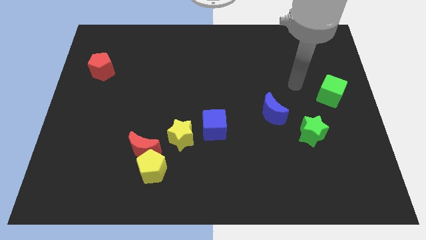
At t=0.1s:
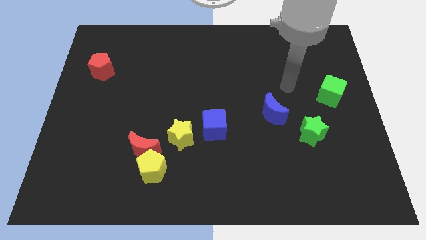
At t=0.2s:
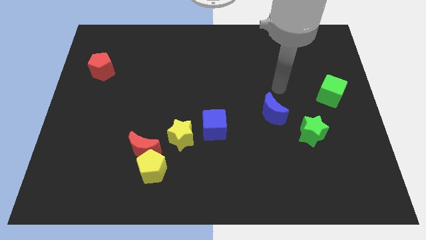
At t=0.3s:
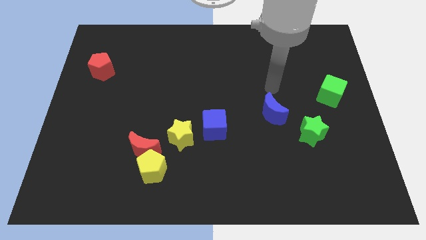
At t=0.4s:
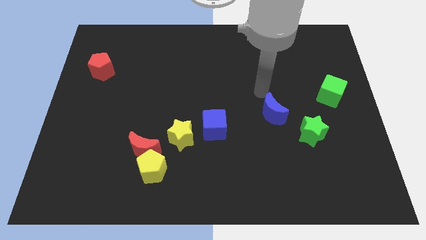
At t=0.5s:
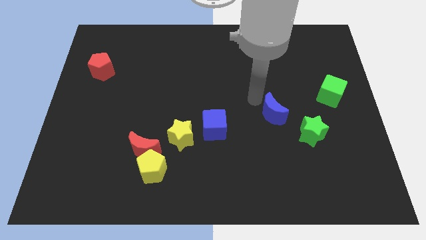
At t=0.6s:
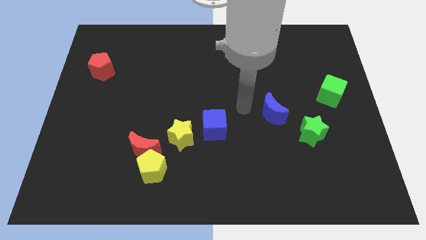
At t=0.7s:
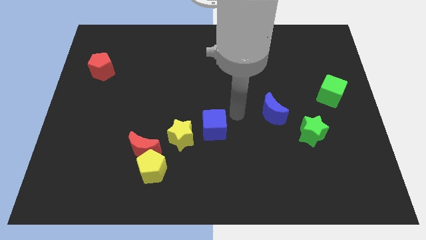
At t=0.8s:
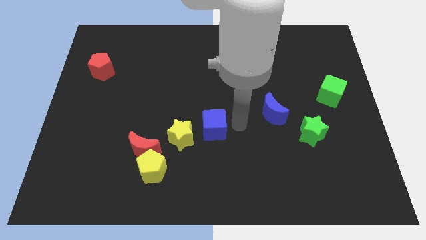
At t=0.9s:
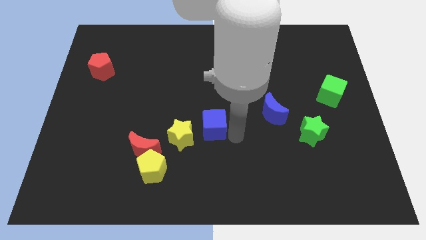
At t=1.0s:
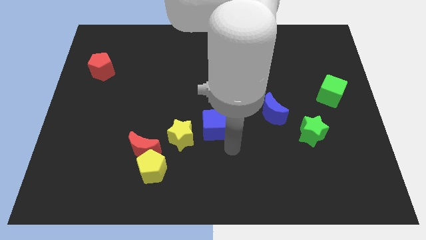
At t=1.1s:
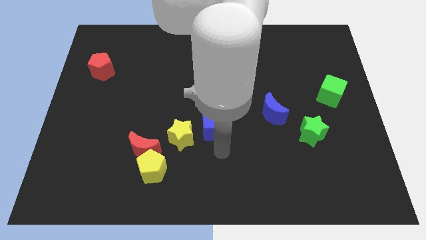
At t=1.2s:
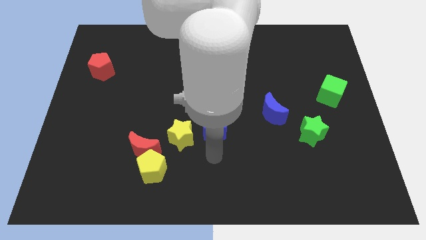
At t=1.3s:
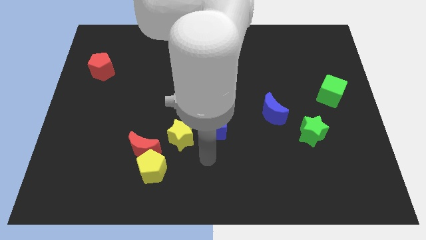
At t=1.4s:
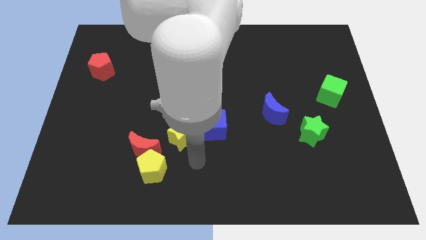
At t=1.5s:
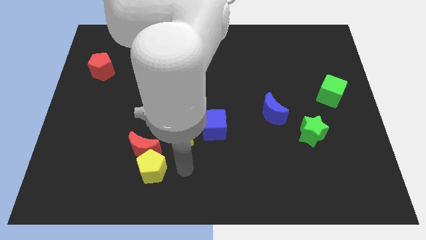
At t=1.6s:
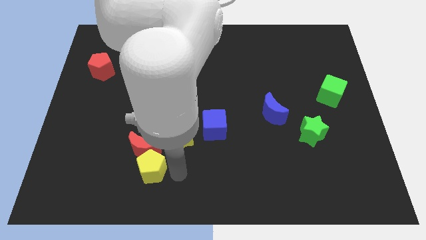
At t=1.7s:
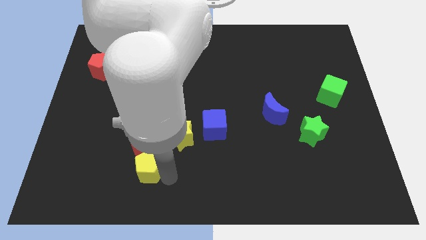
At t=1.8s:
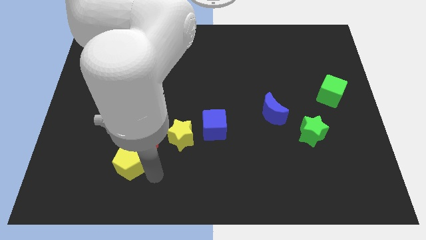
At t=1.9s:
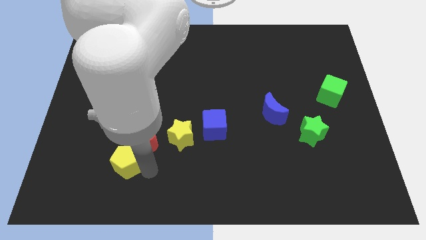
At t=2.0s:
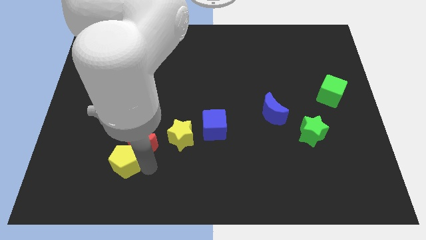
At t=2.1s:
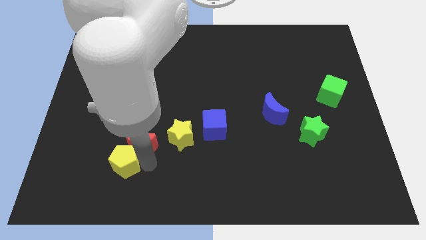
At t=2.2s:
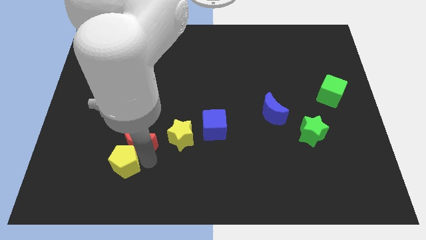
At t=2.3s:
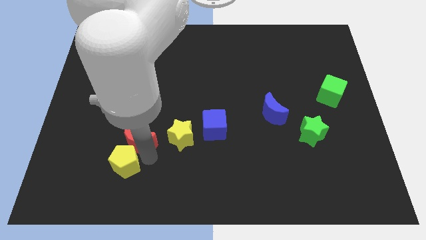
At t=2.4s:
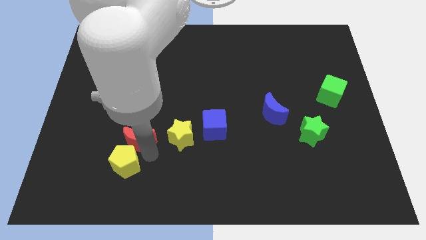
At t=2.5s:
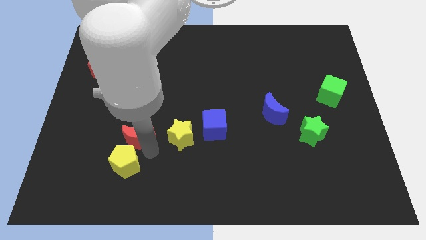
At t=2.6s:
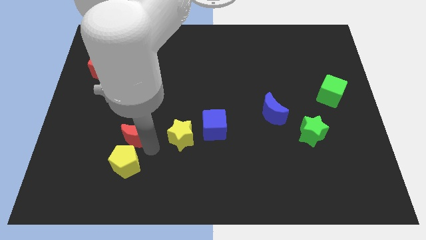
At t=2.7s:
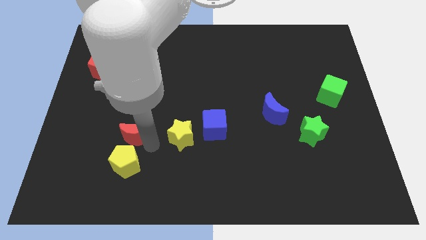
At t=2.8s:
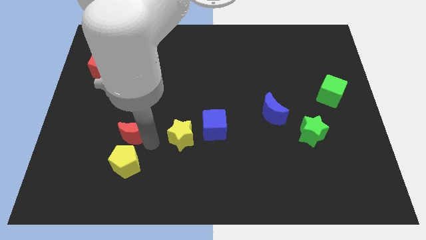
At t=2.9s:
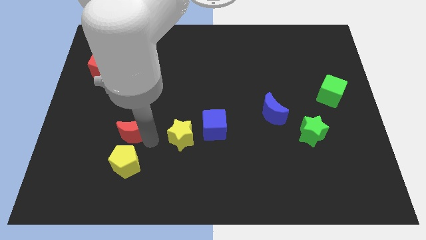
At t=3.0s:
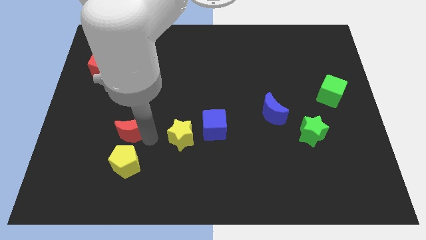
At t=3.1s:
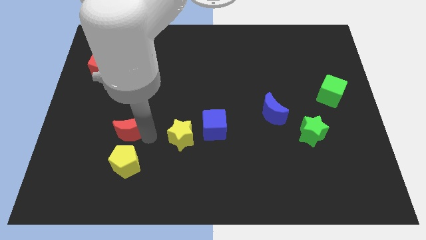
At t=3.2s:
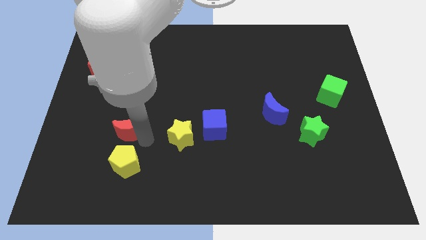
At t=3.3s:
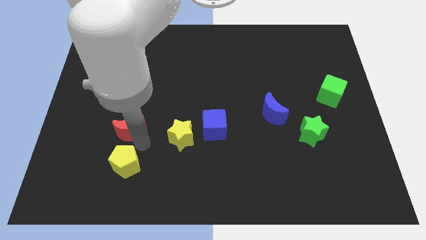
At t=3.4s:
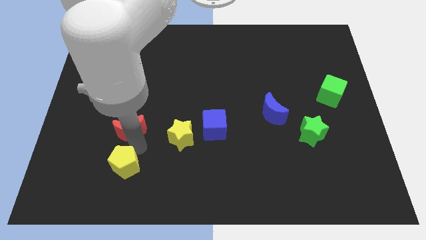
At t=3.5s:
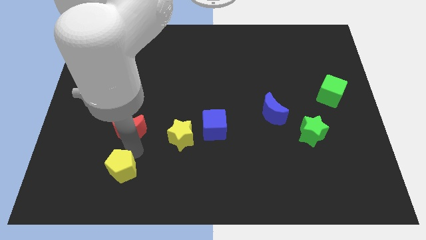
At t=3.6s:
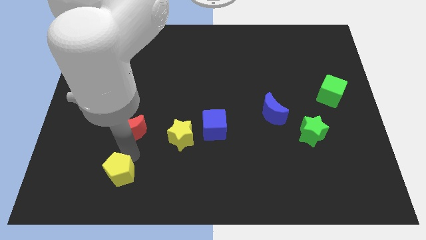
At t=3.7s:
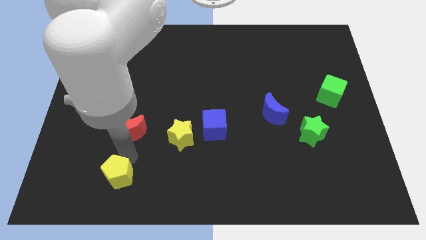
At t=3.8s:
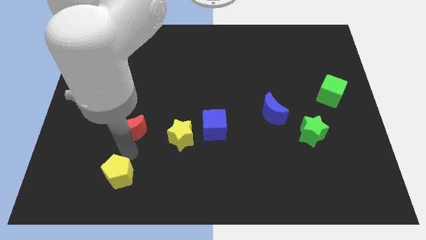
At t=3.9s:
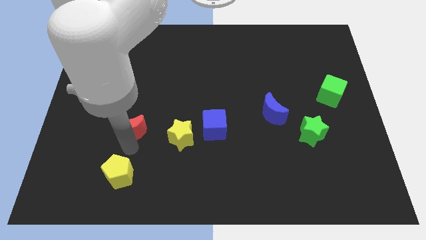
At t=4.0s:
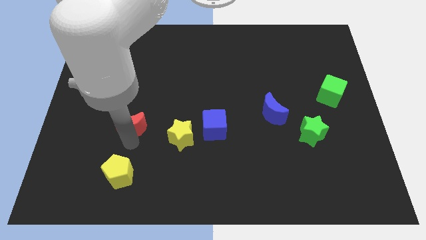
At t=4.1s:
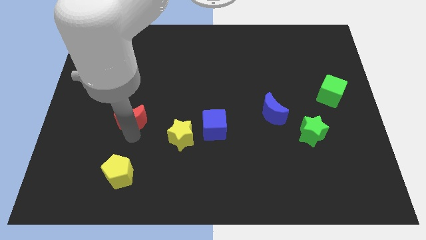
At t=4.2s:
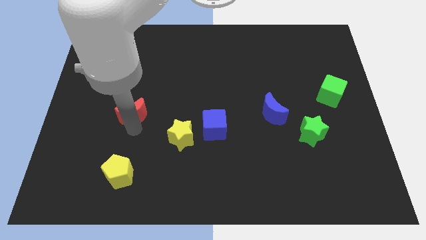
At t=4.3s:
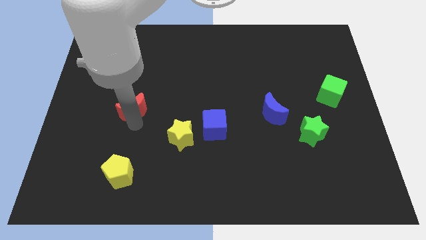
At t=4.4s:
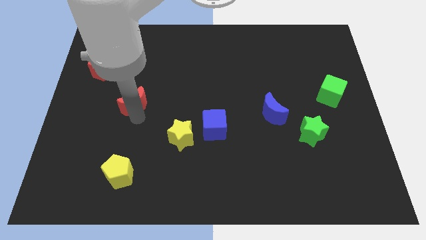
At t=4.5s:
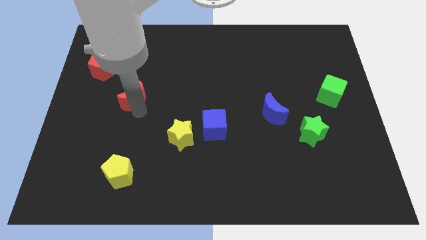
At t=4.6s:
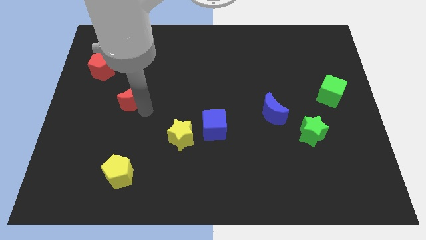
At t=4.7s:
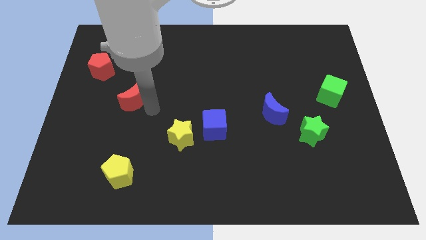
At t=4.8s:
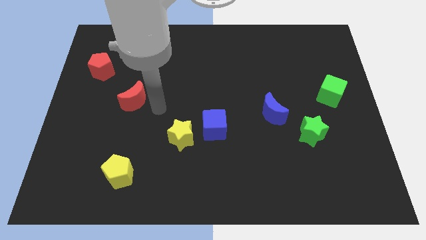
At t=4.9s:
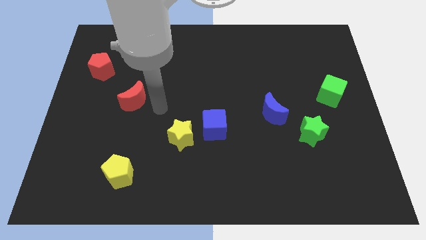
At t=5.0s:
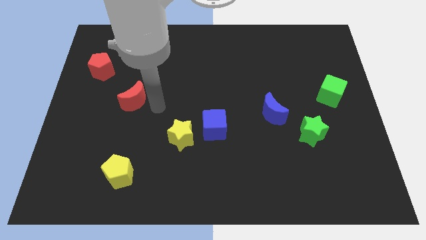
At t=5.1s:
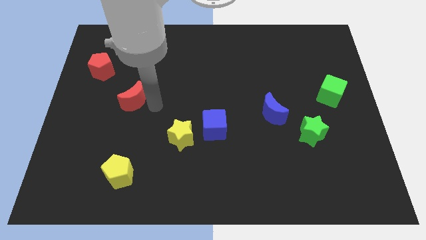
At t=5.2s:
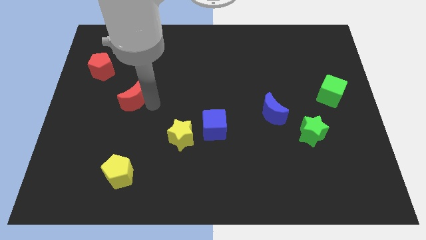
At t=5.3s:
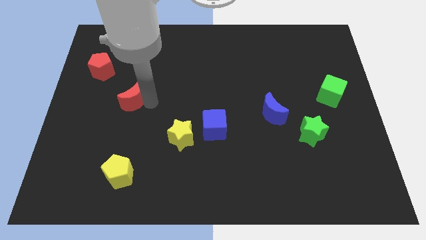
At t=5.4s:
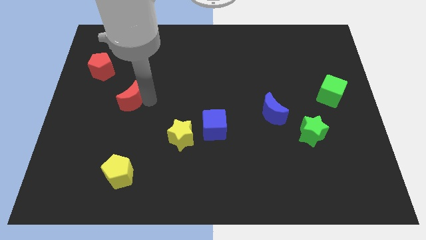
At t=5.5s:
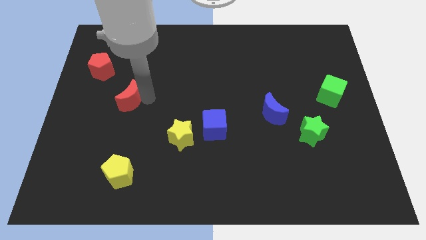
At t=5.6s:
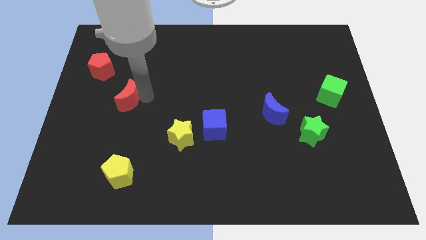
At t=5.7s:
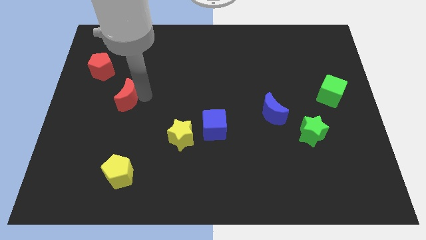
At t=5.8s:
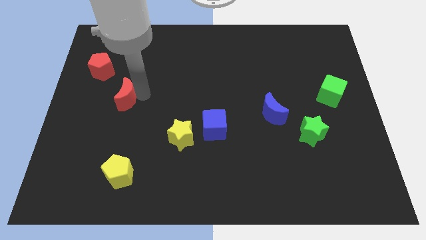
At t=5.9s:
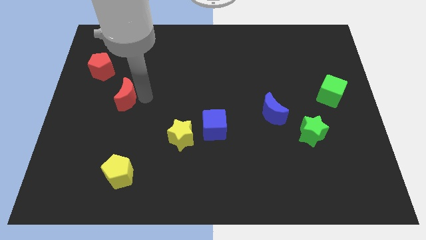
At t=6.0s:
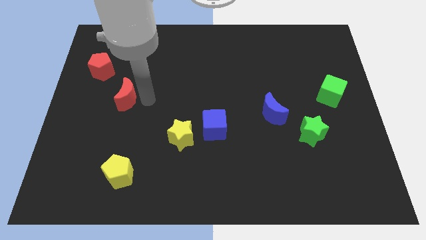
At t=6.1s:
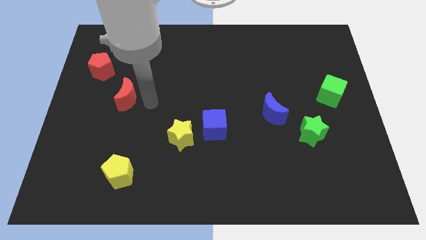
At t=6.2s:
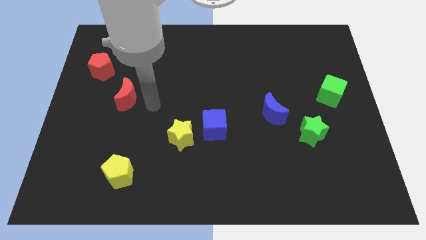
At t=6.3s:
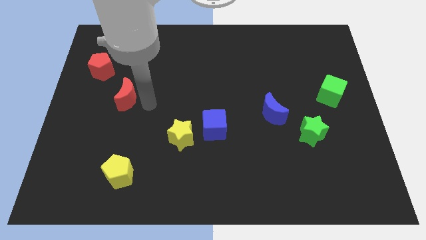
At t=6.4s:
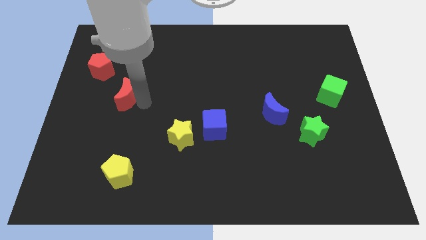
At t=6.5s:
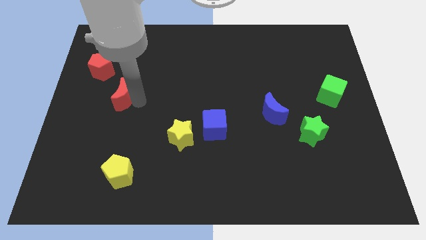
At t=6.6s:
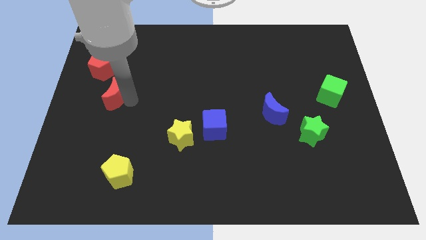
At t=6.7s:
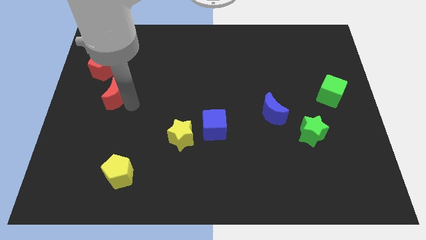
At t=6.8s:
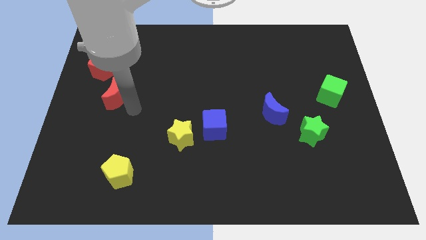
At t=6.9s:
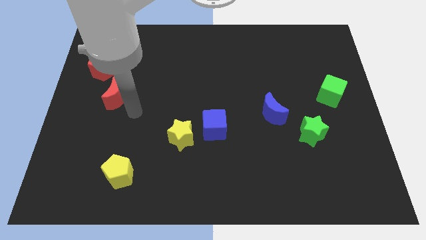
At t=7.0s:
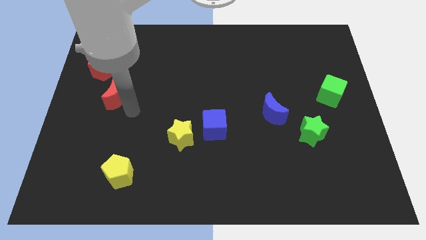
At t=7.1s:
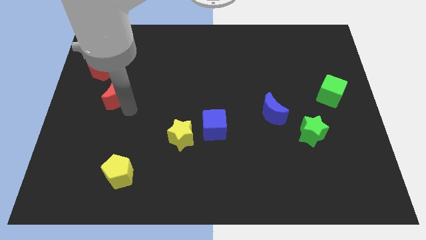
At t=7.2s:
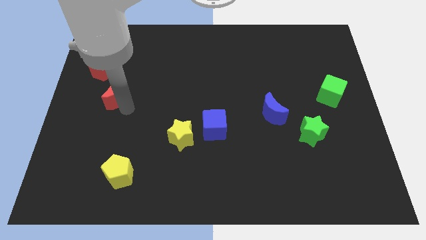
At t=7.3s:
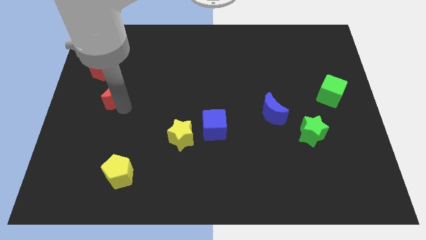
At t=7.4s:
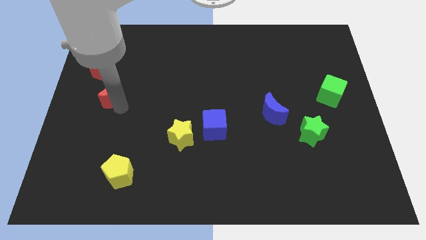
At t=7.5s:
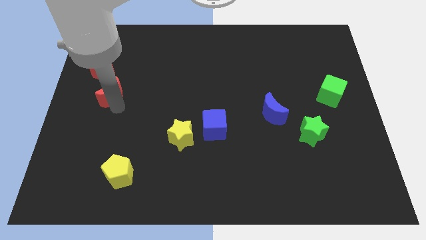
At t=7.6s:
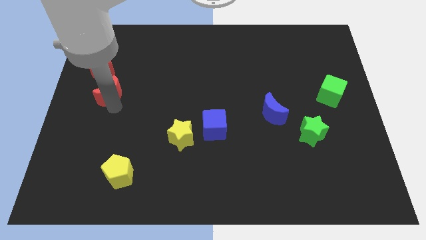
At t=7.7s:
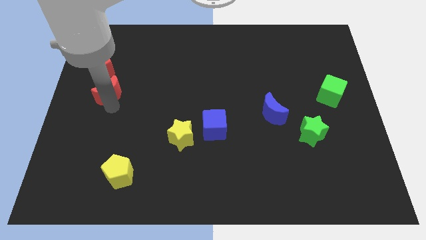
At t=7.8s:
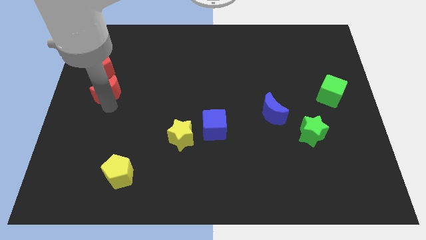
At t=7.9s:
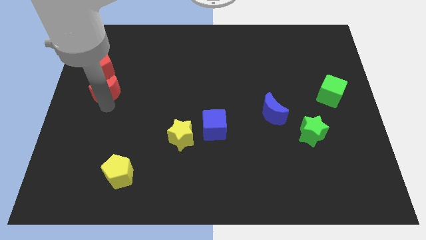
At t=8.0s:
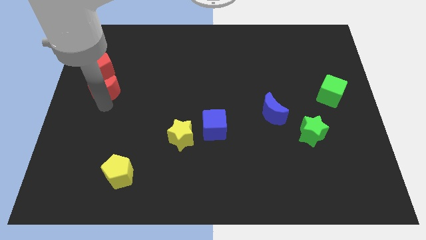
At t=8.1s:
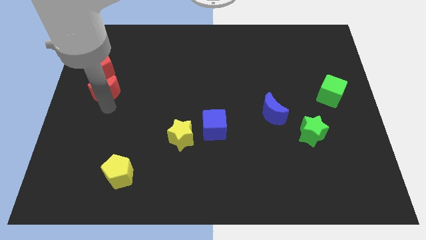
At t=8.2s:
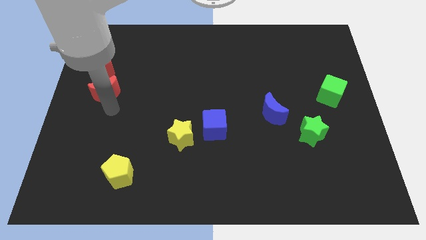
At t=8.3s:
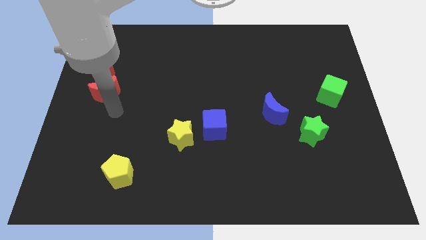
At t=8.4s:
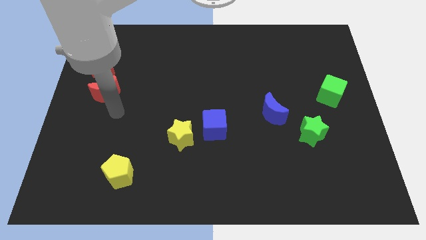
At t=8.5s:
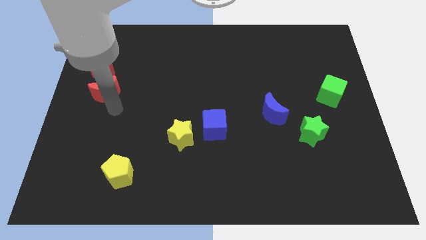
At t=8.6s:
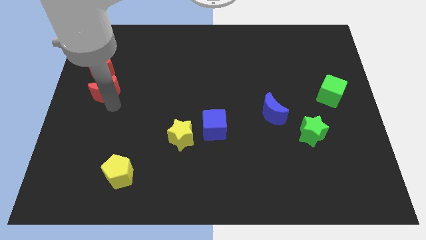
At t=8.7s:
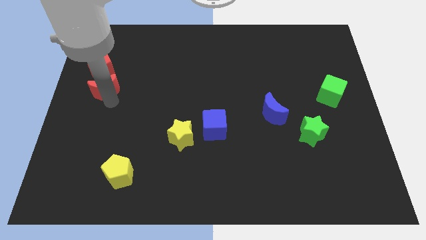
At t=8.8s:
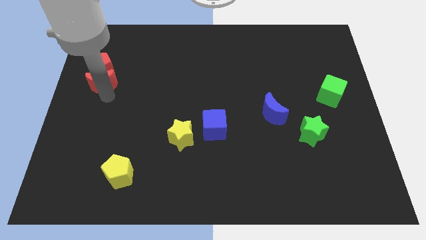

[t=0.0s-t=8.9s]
put the red moon to the red pentagon
